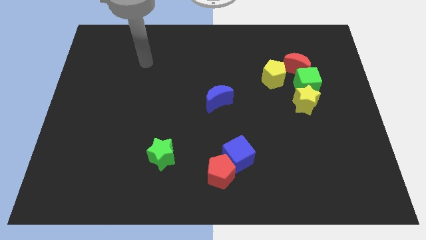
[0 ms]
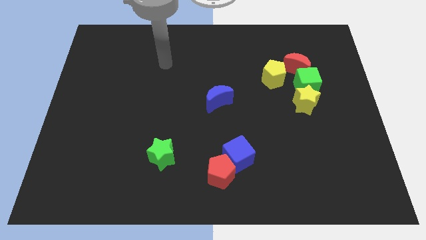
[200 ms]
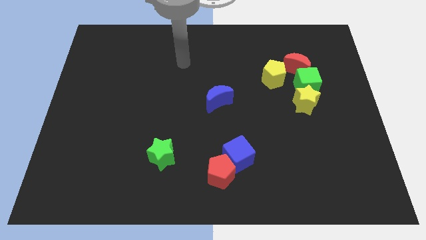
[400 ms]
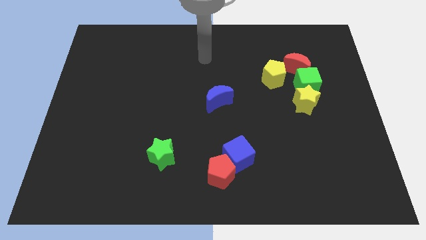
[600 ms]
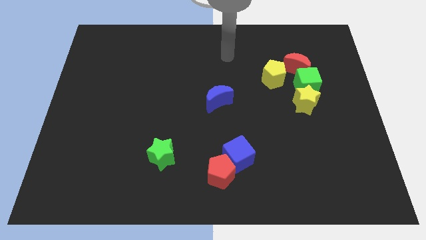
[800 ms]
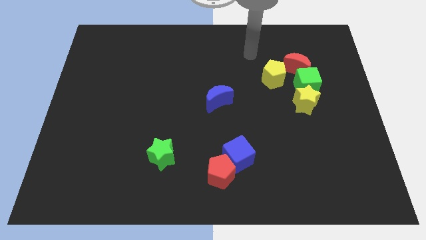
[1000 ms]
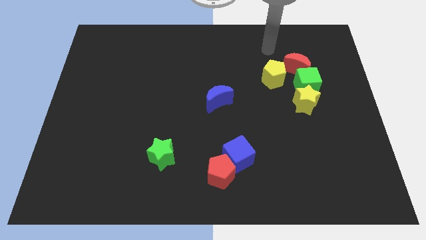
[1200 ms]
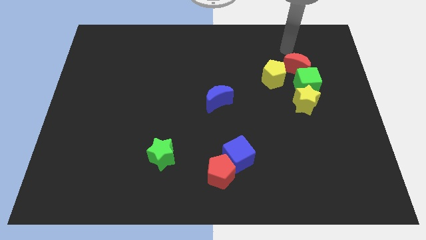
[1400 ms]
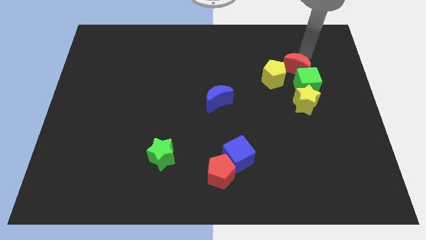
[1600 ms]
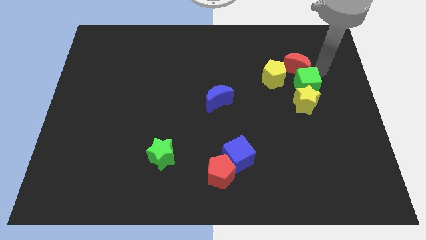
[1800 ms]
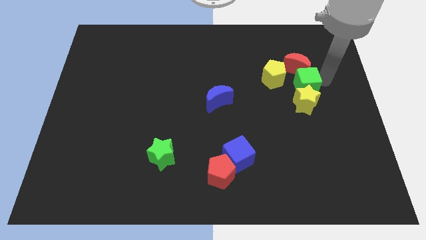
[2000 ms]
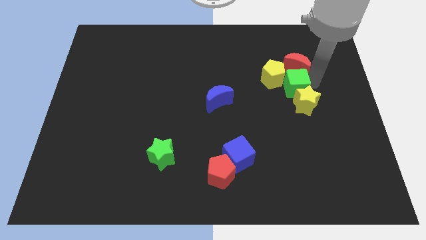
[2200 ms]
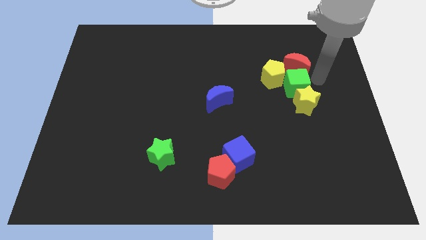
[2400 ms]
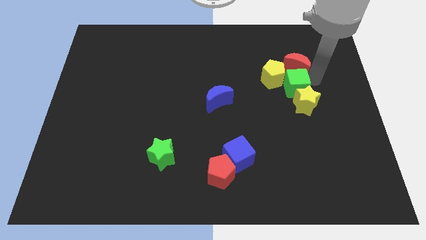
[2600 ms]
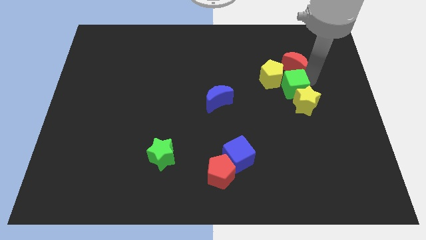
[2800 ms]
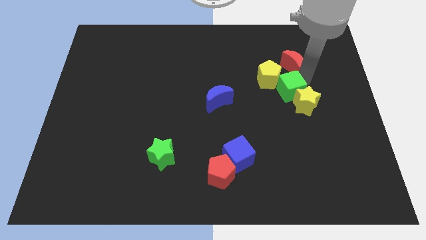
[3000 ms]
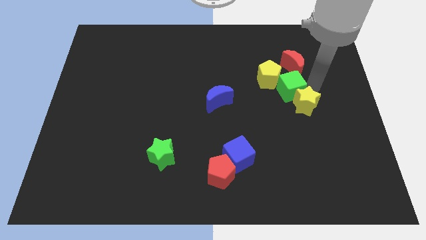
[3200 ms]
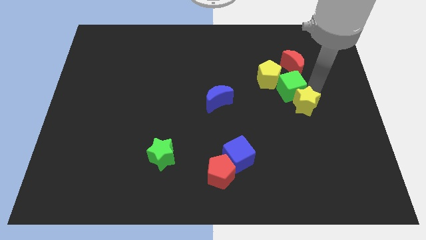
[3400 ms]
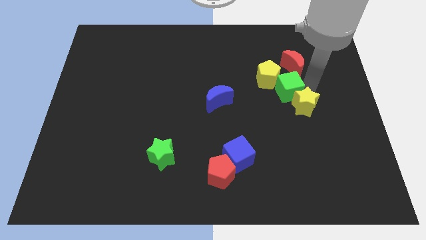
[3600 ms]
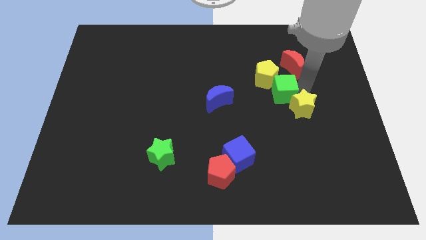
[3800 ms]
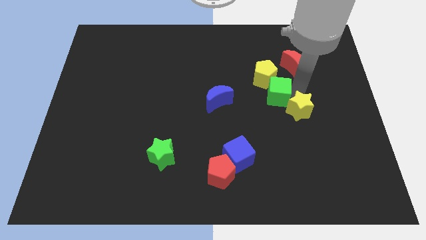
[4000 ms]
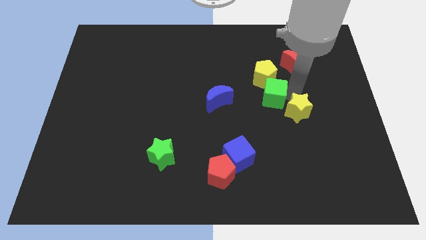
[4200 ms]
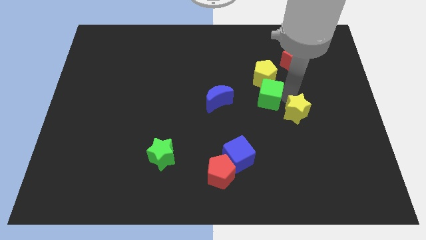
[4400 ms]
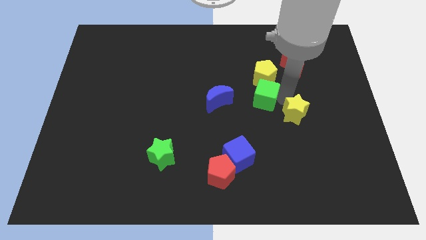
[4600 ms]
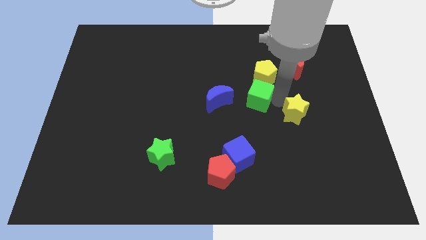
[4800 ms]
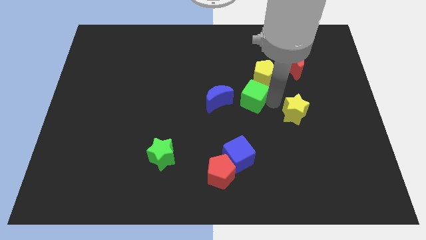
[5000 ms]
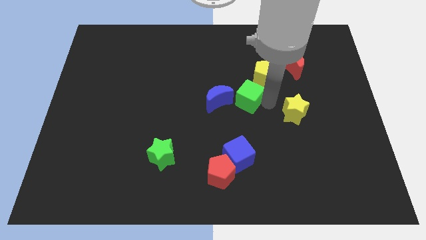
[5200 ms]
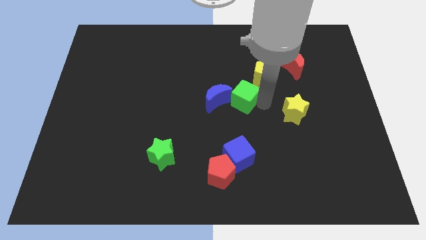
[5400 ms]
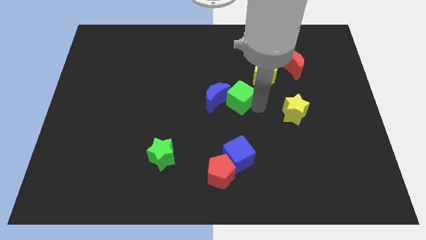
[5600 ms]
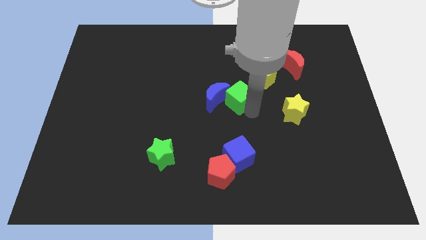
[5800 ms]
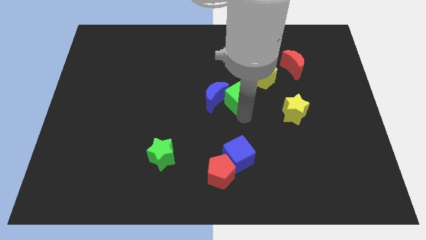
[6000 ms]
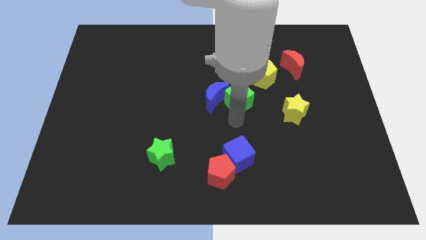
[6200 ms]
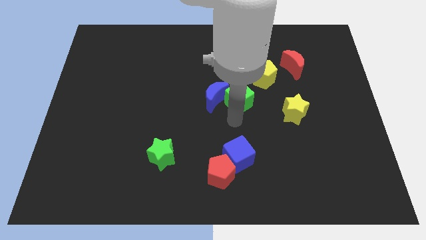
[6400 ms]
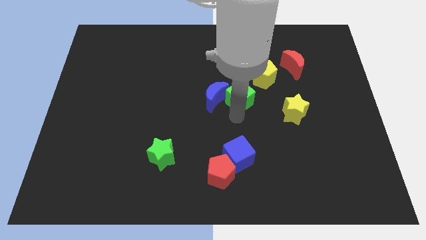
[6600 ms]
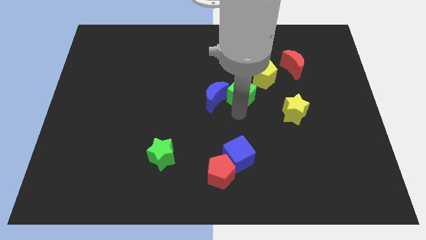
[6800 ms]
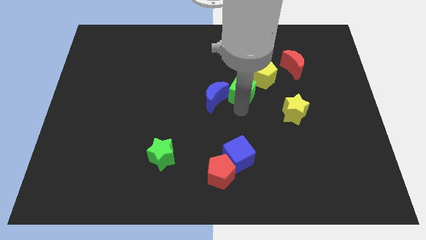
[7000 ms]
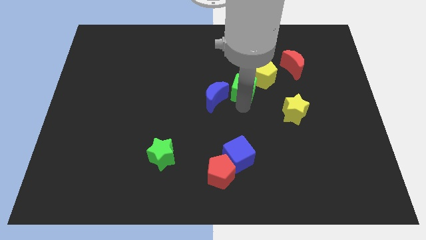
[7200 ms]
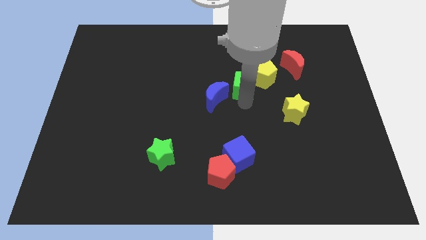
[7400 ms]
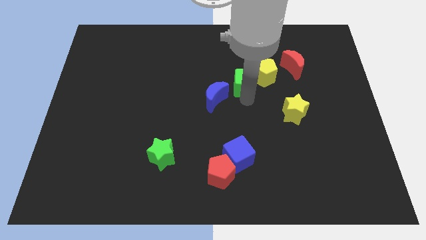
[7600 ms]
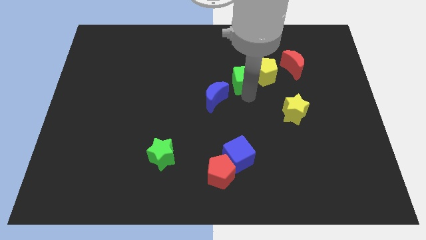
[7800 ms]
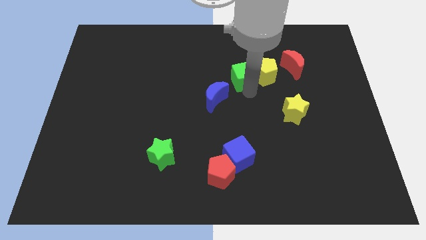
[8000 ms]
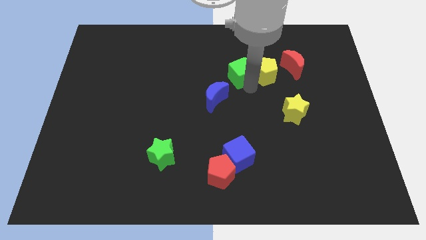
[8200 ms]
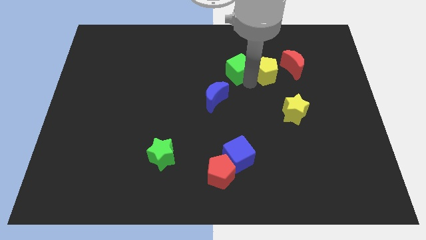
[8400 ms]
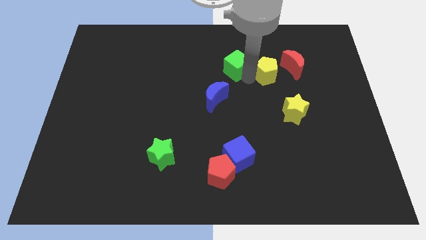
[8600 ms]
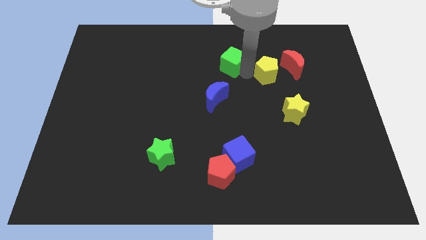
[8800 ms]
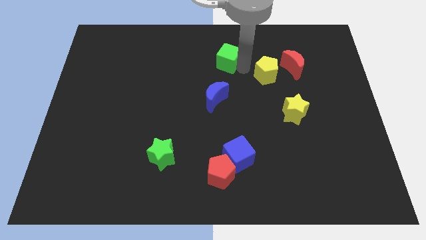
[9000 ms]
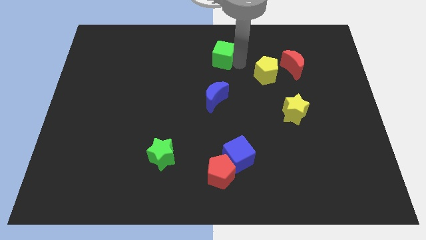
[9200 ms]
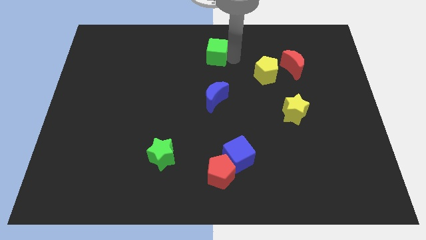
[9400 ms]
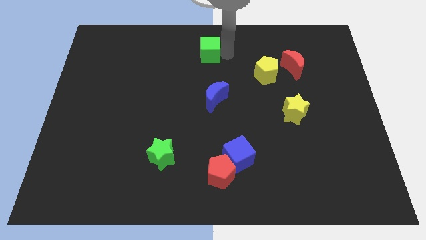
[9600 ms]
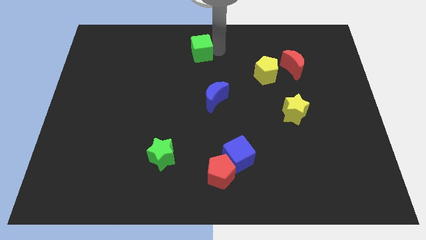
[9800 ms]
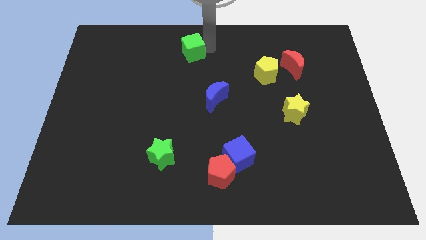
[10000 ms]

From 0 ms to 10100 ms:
push the green cube left

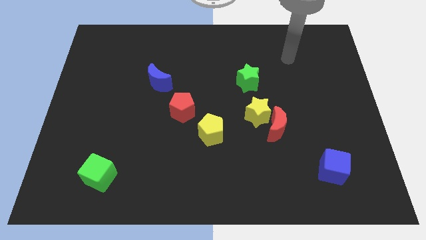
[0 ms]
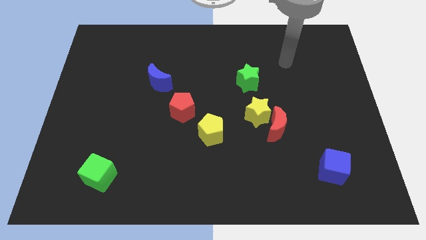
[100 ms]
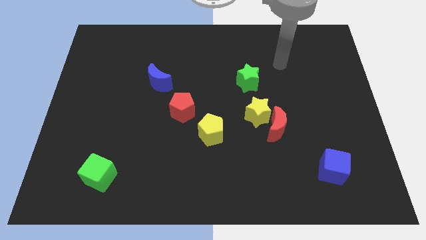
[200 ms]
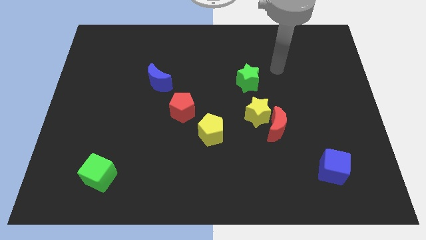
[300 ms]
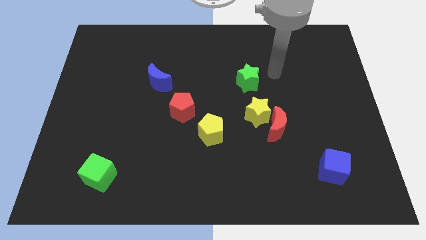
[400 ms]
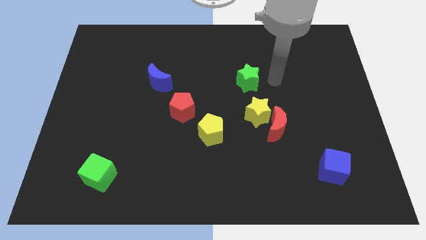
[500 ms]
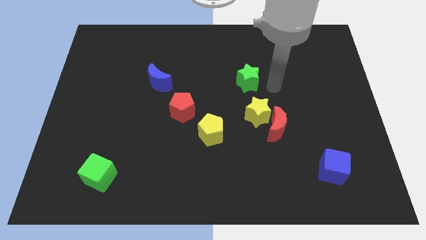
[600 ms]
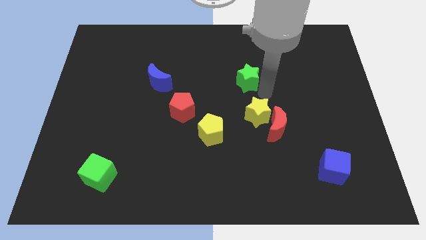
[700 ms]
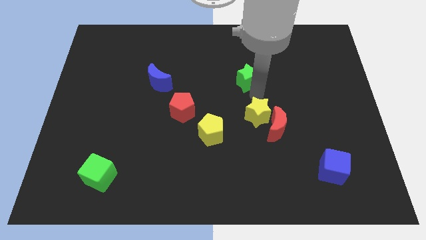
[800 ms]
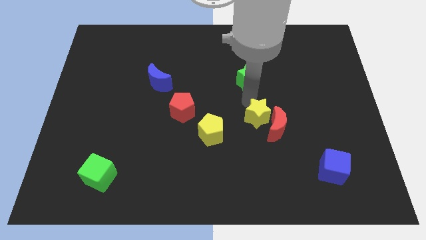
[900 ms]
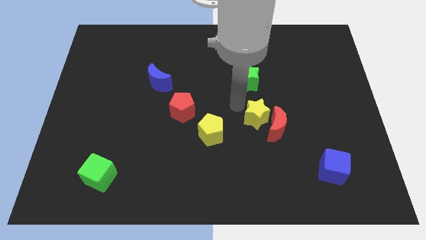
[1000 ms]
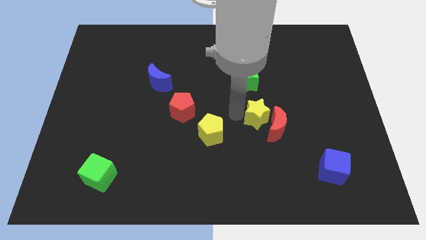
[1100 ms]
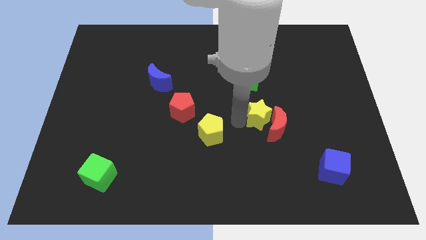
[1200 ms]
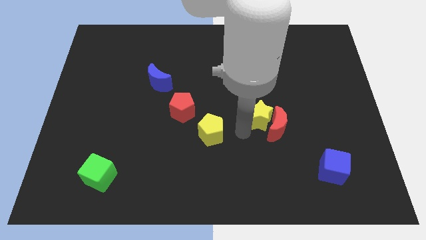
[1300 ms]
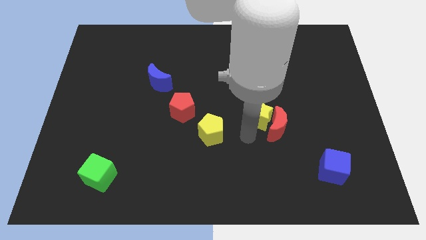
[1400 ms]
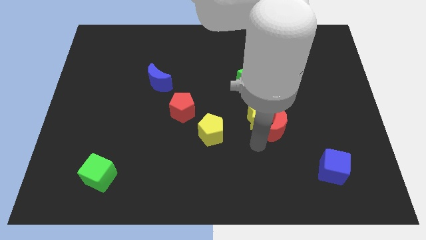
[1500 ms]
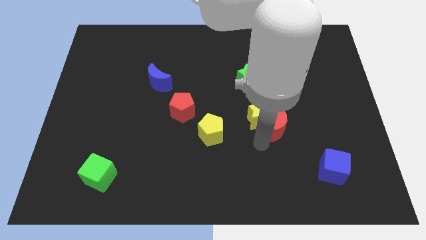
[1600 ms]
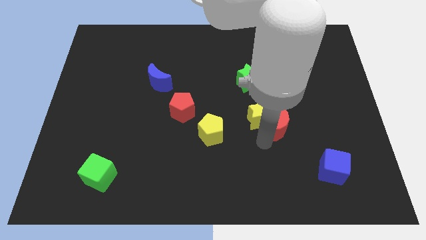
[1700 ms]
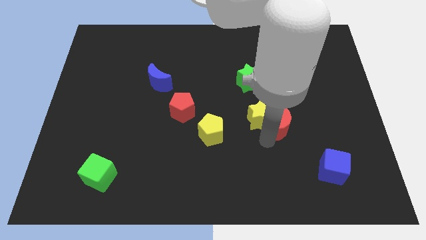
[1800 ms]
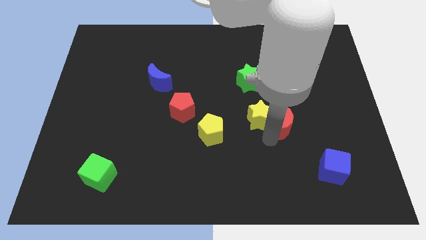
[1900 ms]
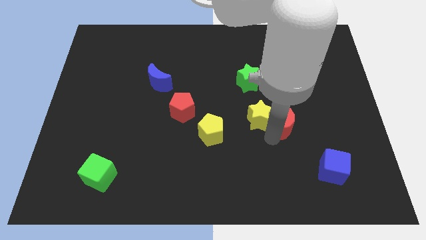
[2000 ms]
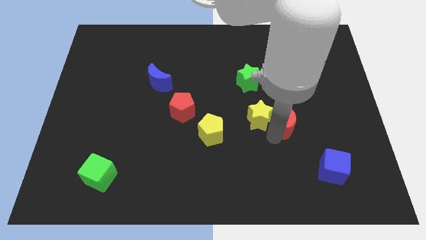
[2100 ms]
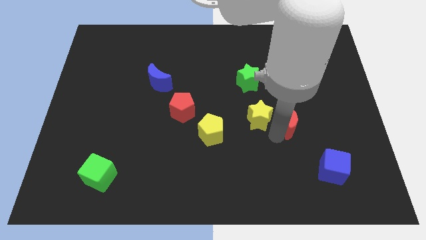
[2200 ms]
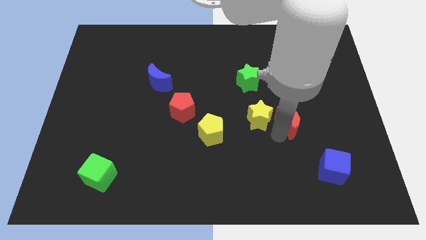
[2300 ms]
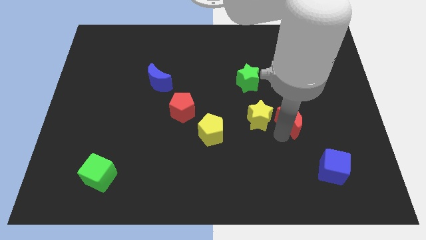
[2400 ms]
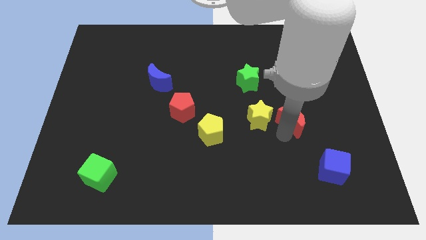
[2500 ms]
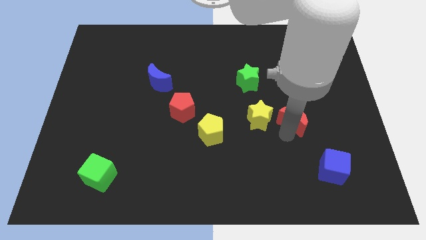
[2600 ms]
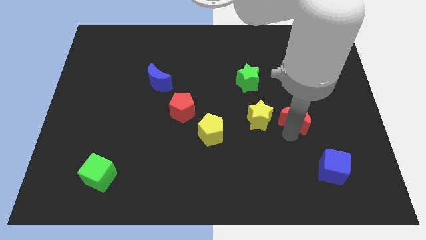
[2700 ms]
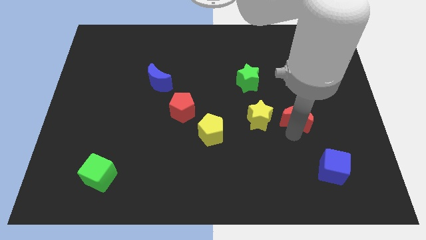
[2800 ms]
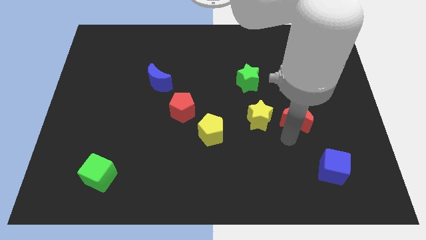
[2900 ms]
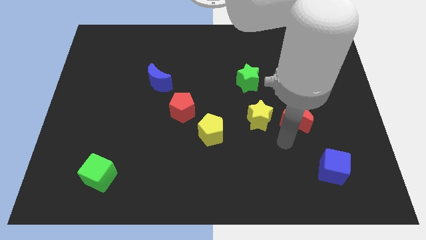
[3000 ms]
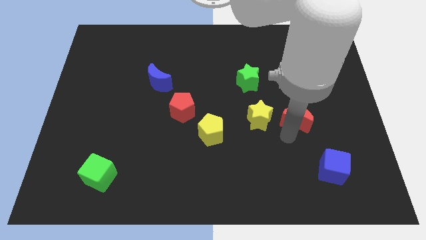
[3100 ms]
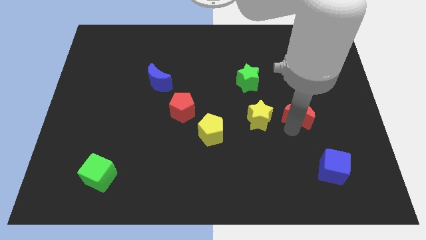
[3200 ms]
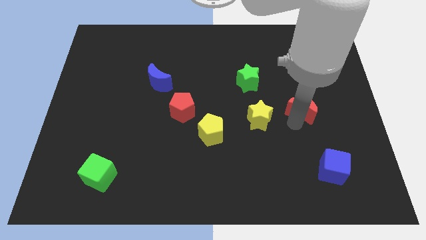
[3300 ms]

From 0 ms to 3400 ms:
slide the red moon up and right diagonally a little bit
